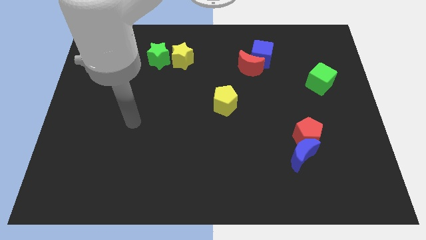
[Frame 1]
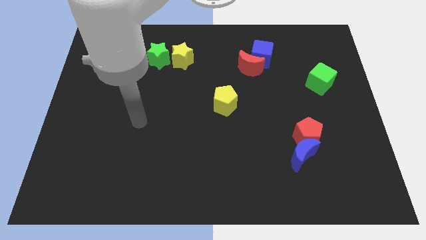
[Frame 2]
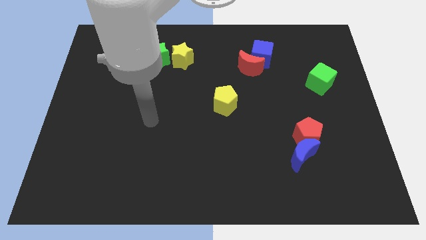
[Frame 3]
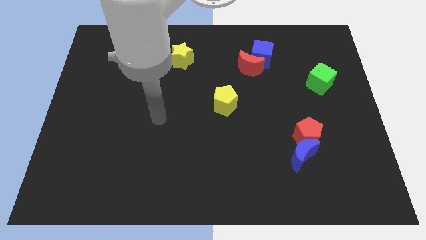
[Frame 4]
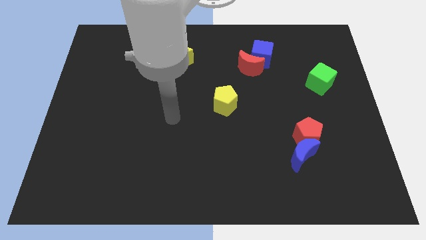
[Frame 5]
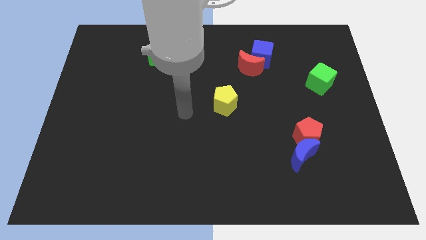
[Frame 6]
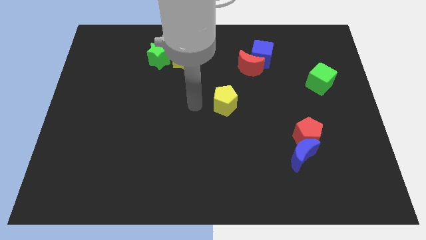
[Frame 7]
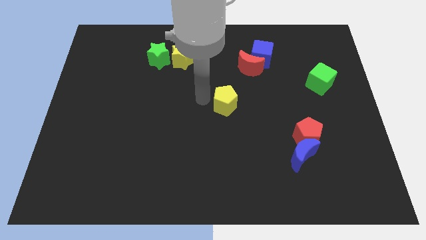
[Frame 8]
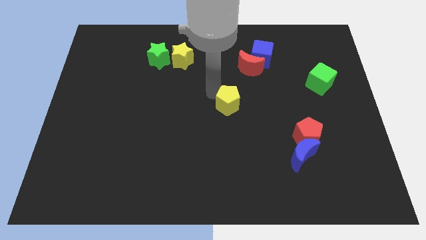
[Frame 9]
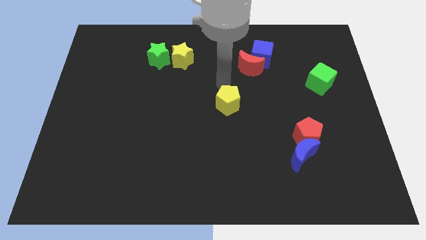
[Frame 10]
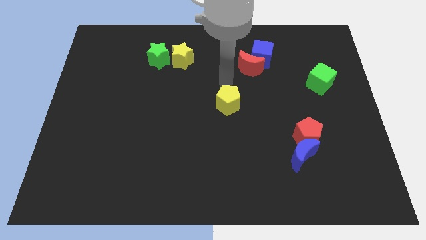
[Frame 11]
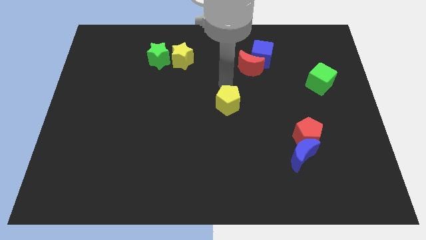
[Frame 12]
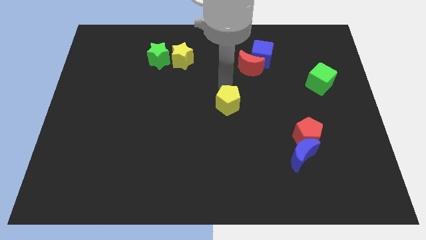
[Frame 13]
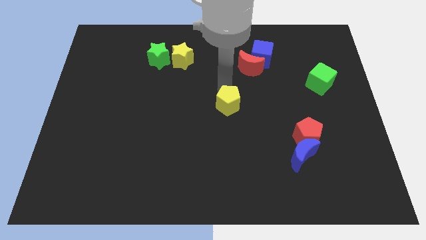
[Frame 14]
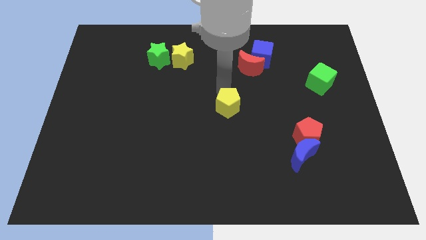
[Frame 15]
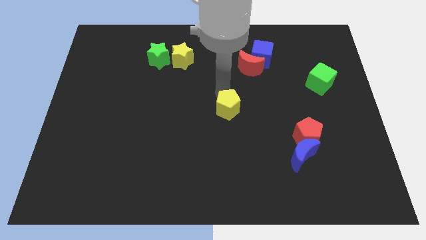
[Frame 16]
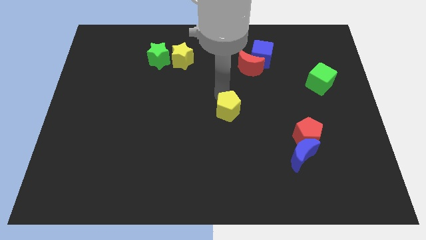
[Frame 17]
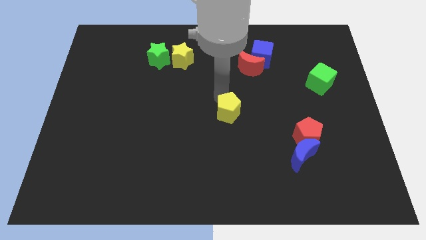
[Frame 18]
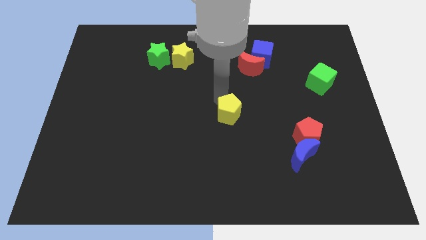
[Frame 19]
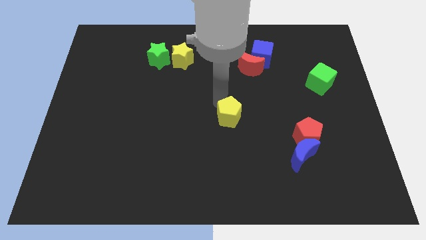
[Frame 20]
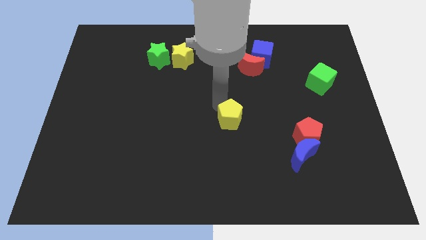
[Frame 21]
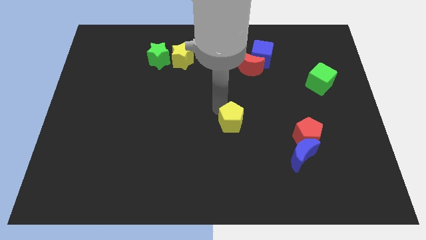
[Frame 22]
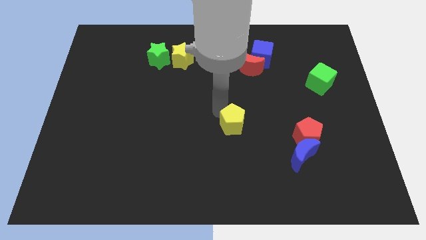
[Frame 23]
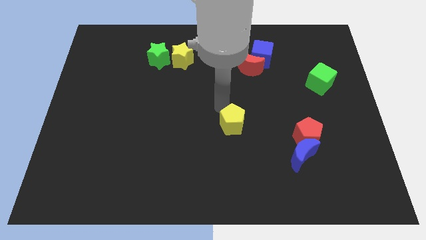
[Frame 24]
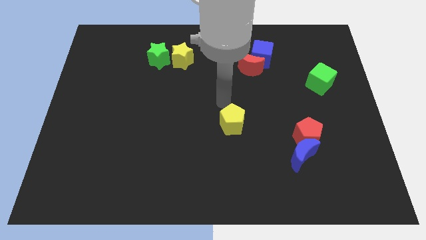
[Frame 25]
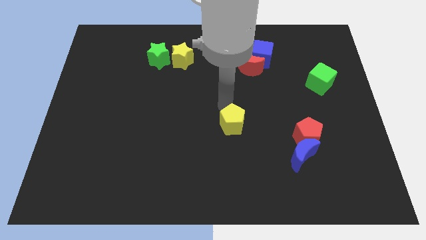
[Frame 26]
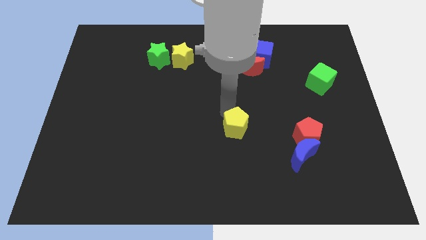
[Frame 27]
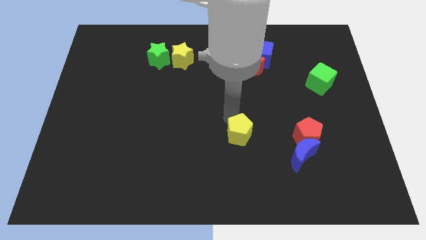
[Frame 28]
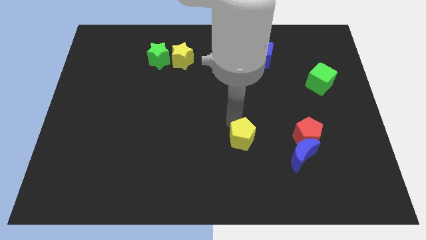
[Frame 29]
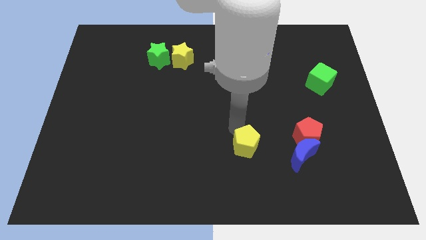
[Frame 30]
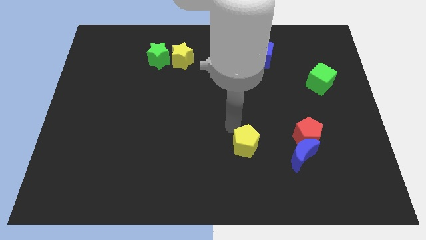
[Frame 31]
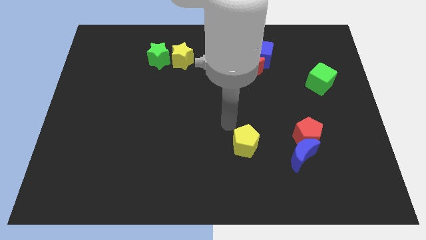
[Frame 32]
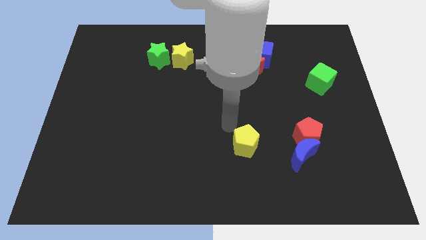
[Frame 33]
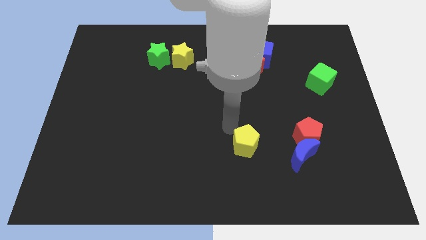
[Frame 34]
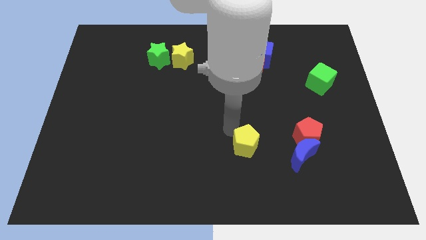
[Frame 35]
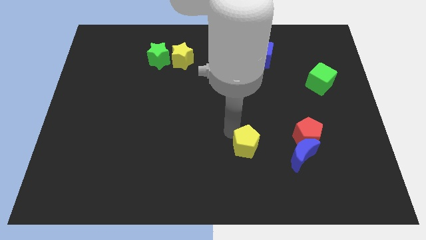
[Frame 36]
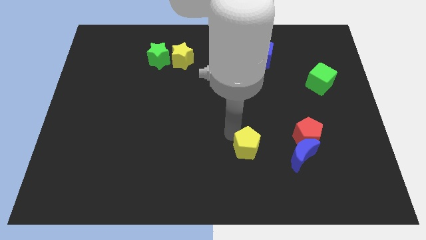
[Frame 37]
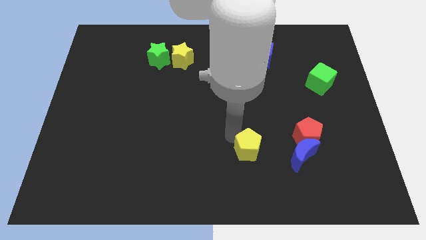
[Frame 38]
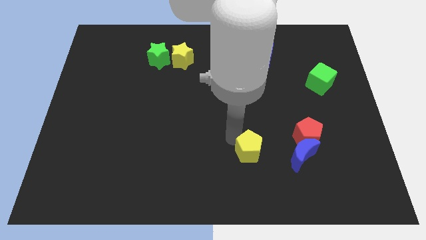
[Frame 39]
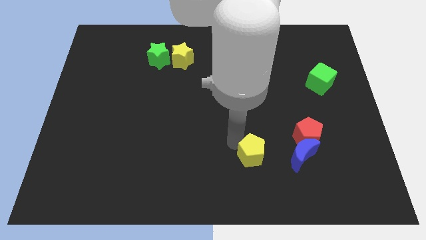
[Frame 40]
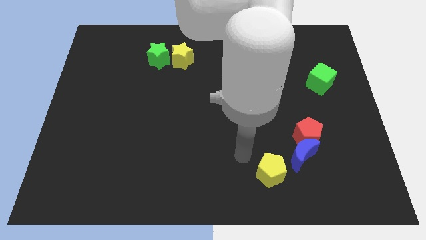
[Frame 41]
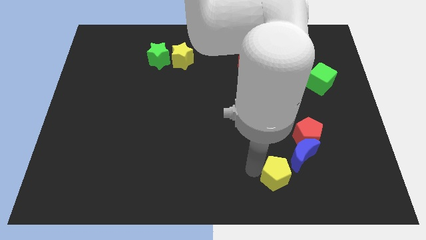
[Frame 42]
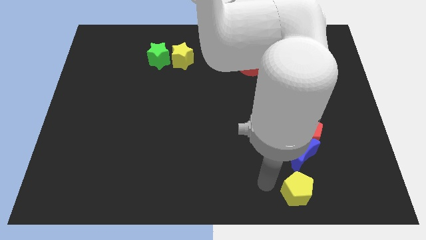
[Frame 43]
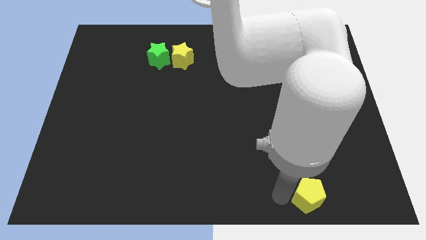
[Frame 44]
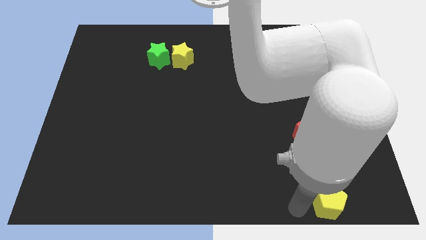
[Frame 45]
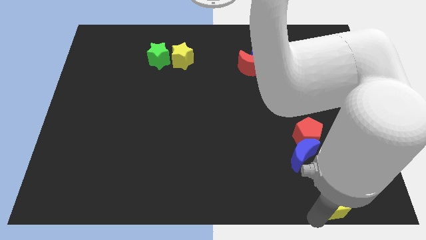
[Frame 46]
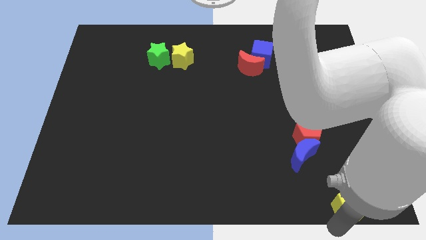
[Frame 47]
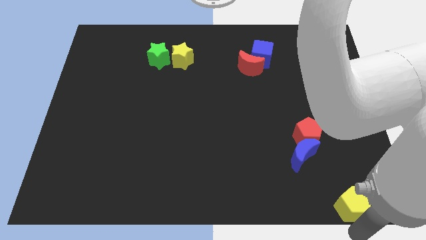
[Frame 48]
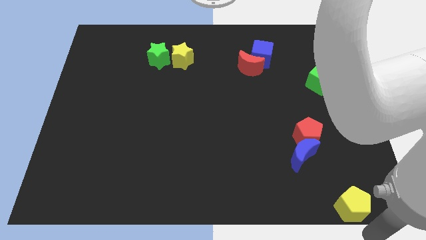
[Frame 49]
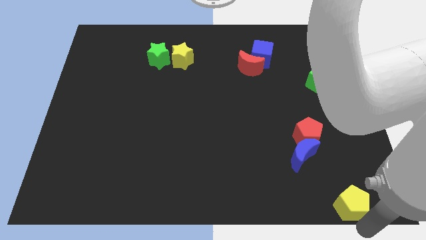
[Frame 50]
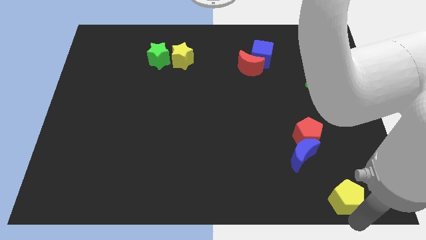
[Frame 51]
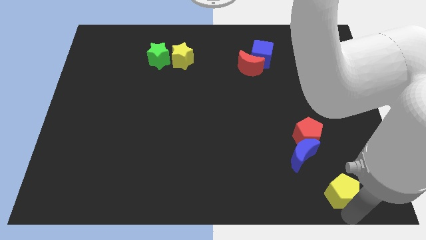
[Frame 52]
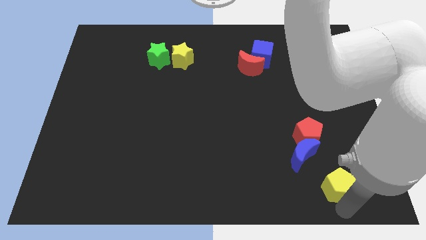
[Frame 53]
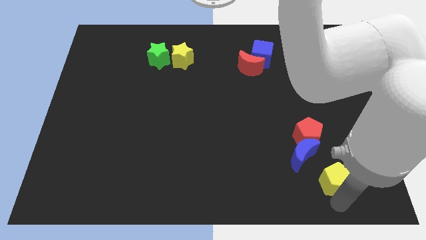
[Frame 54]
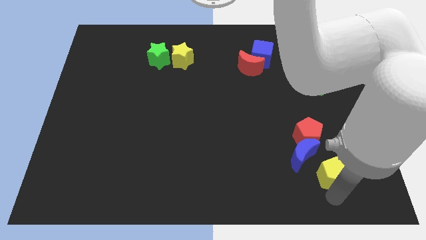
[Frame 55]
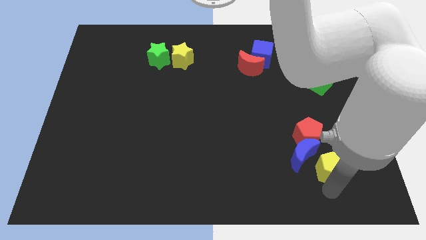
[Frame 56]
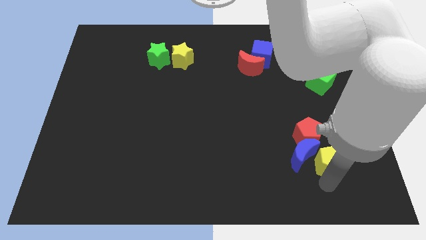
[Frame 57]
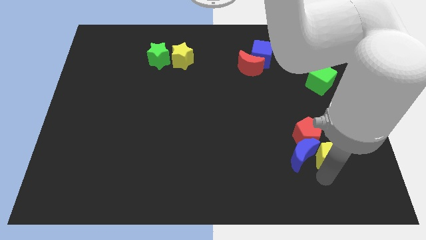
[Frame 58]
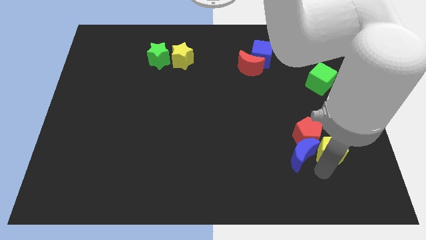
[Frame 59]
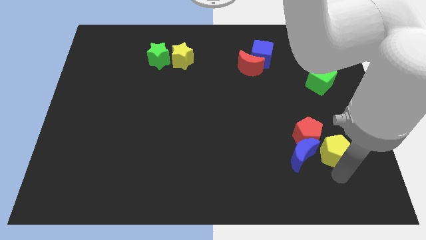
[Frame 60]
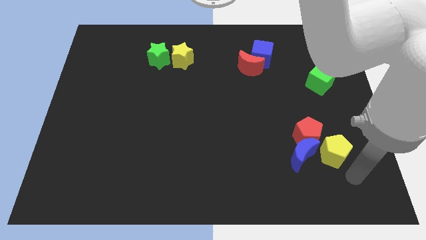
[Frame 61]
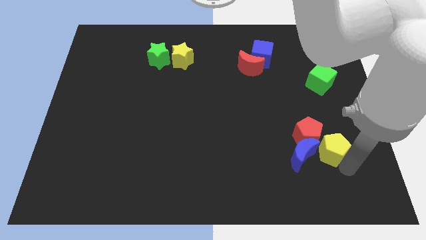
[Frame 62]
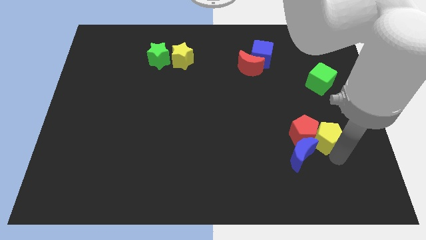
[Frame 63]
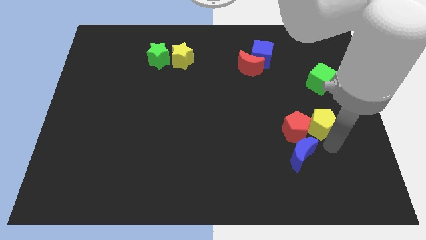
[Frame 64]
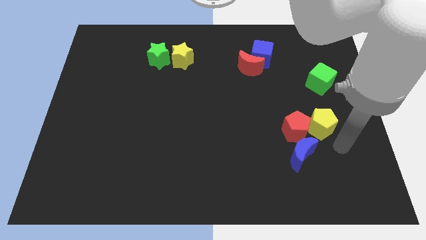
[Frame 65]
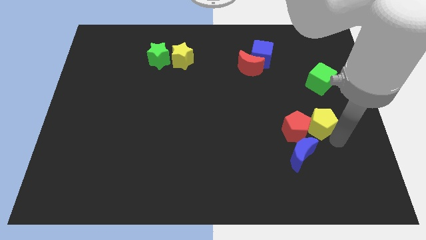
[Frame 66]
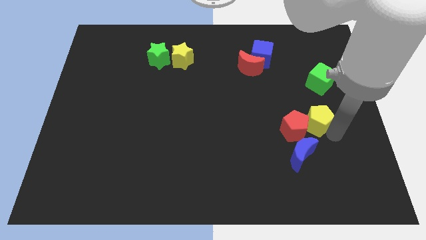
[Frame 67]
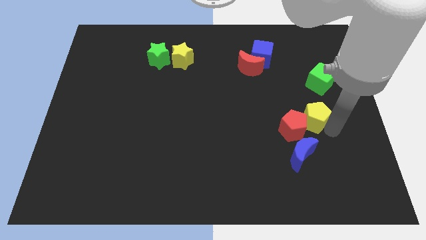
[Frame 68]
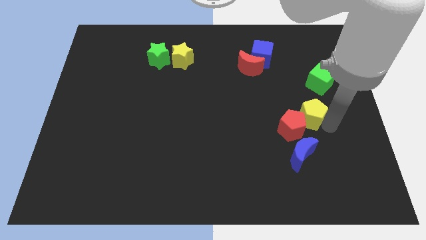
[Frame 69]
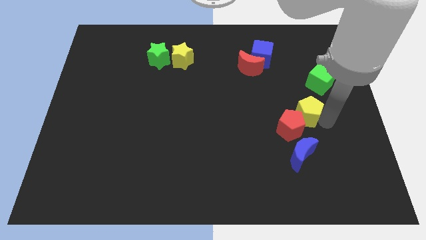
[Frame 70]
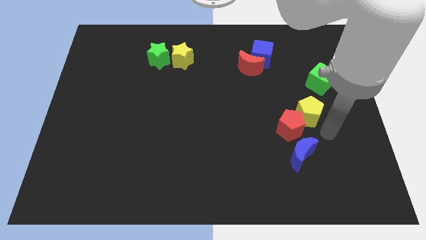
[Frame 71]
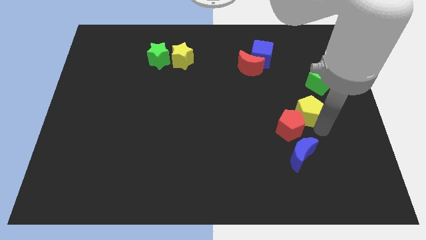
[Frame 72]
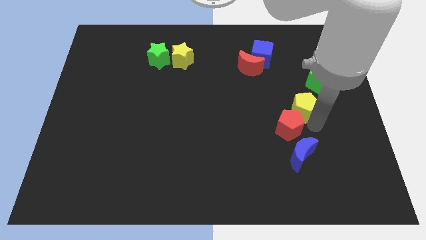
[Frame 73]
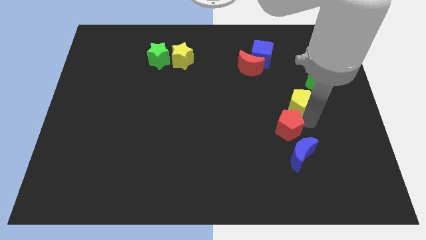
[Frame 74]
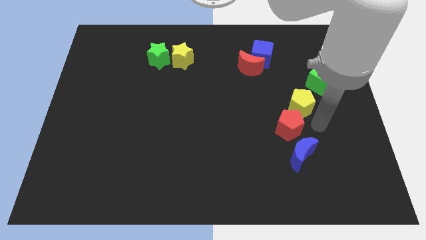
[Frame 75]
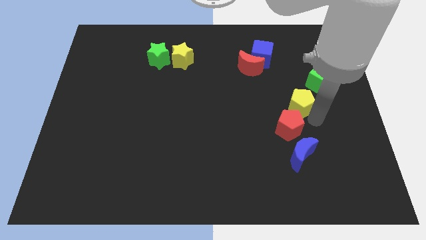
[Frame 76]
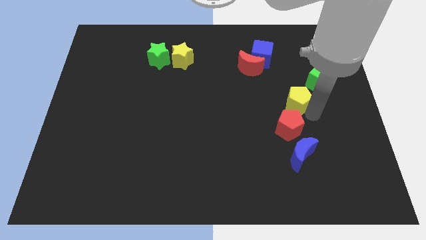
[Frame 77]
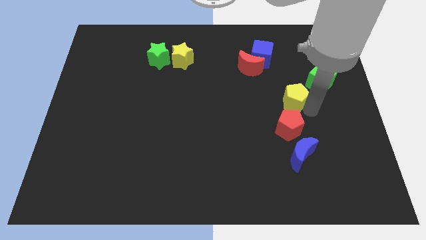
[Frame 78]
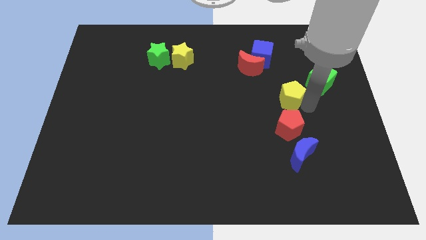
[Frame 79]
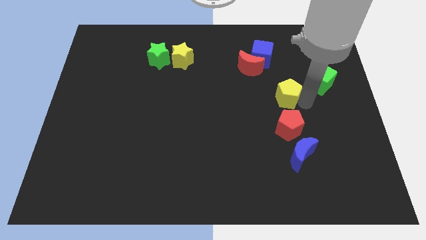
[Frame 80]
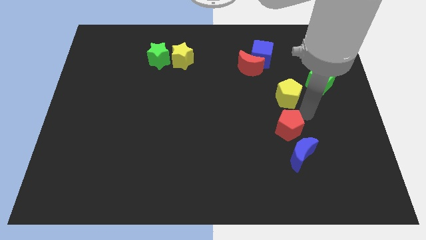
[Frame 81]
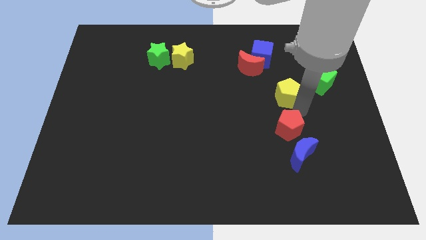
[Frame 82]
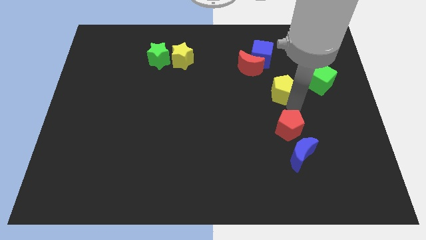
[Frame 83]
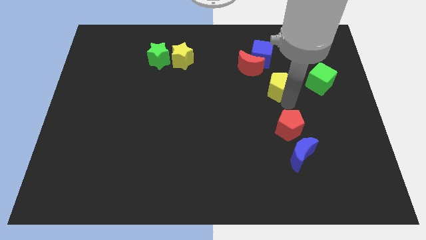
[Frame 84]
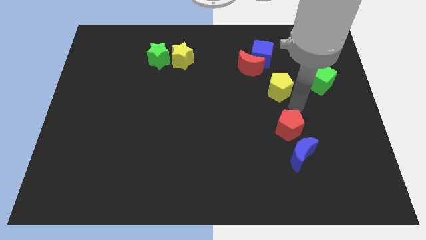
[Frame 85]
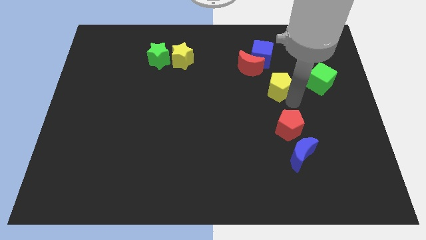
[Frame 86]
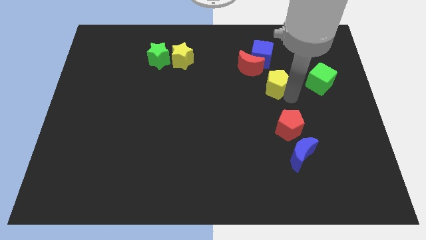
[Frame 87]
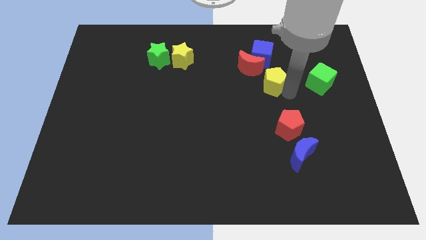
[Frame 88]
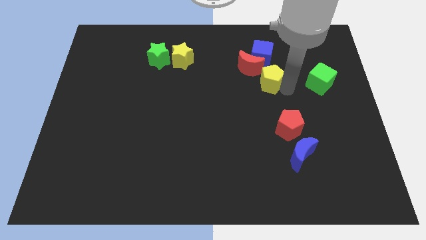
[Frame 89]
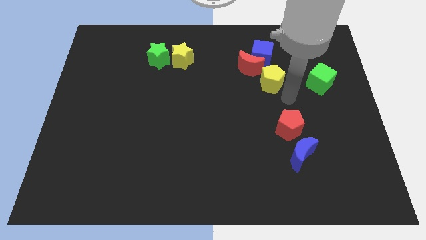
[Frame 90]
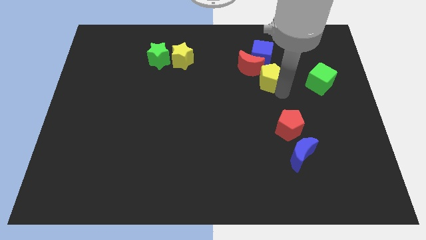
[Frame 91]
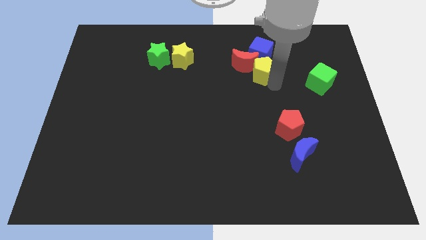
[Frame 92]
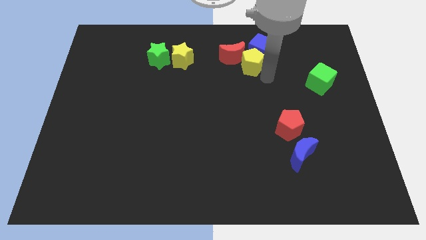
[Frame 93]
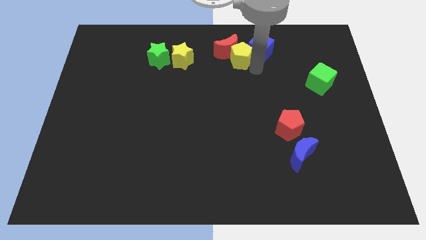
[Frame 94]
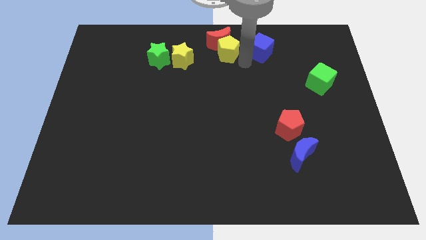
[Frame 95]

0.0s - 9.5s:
put the yellow pentagon to the top
